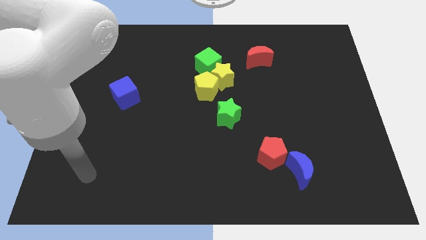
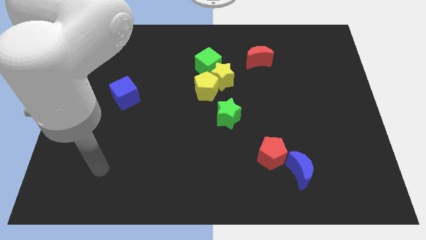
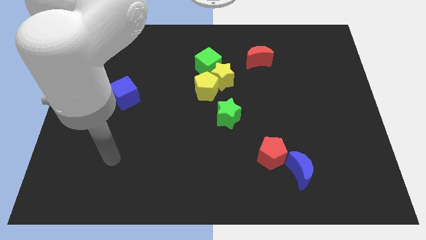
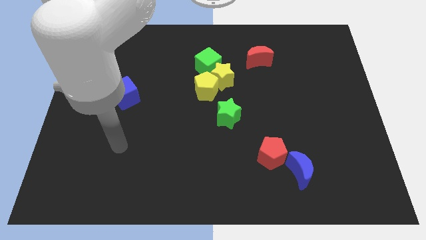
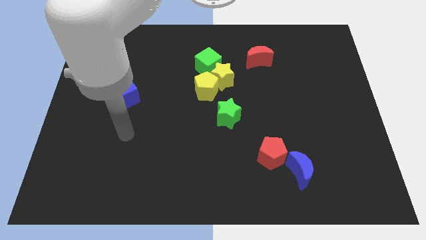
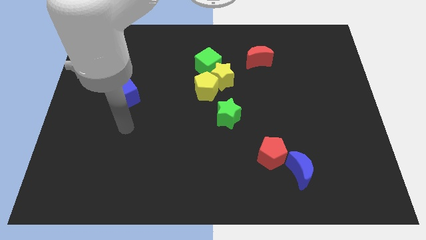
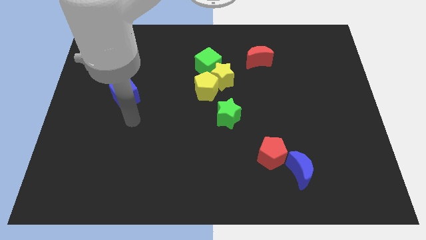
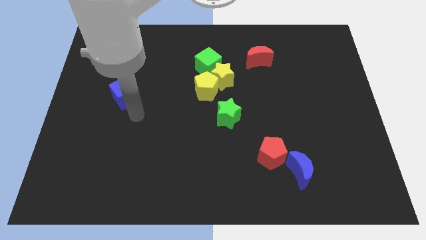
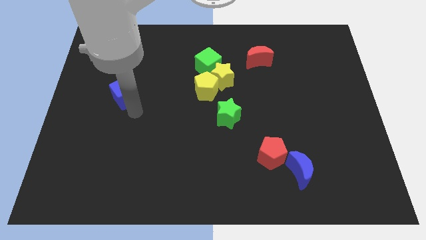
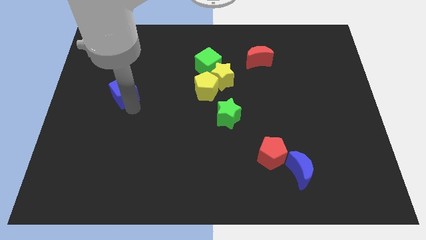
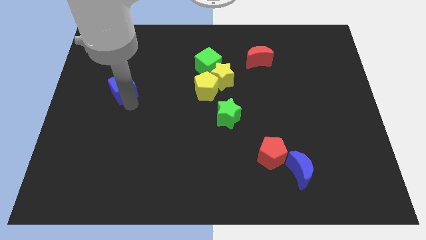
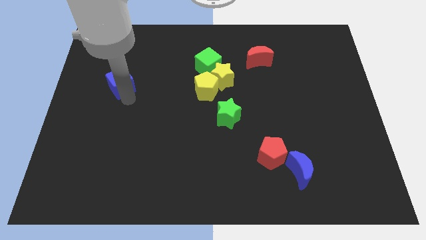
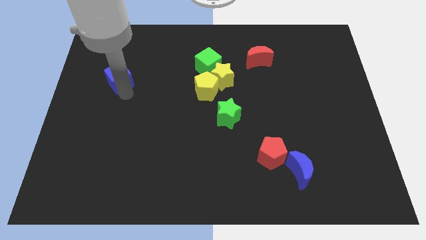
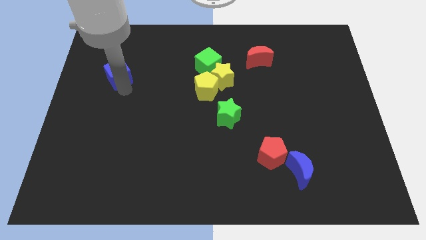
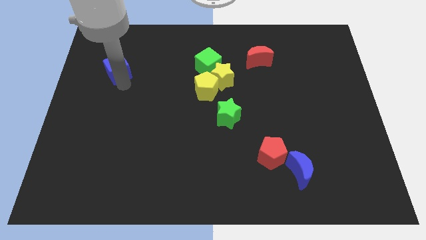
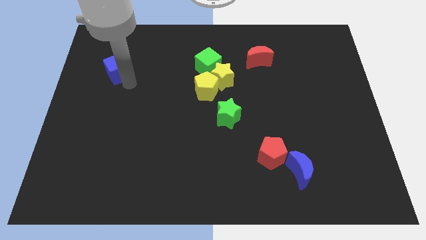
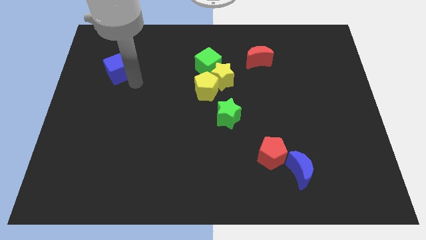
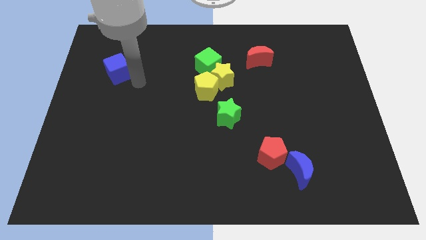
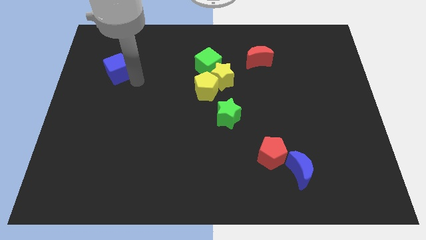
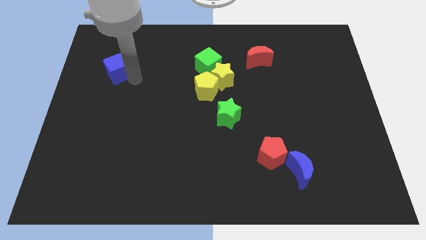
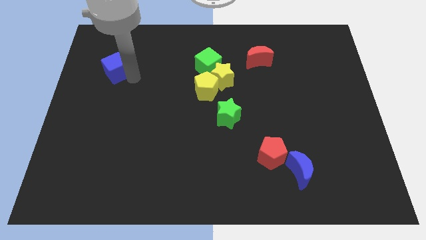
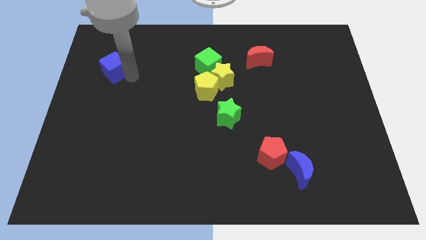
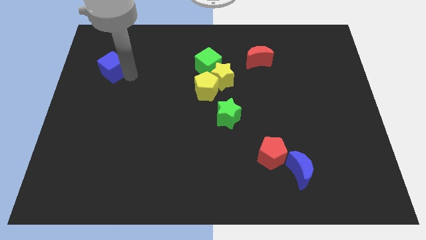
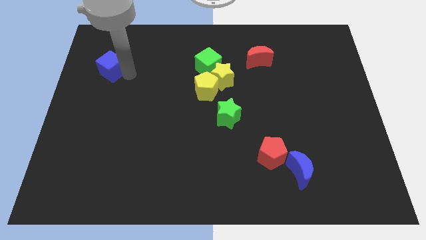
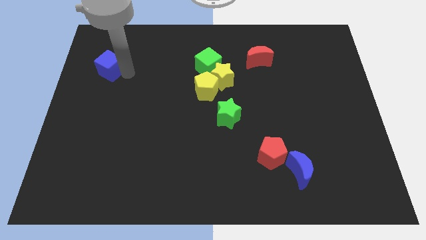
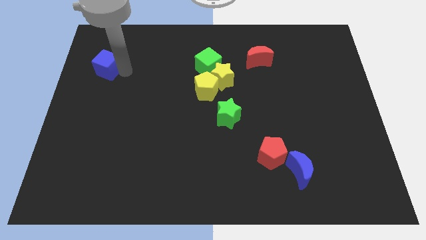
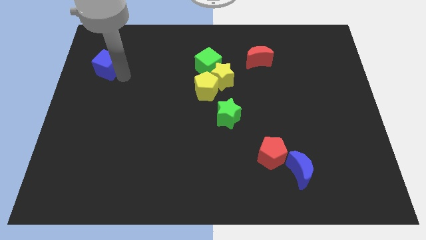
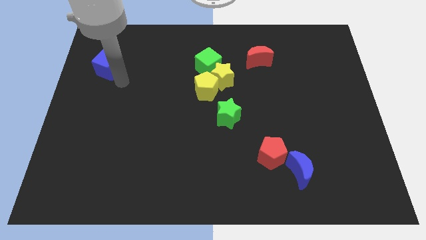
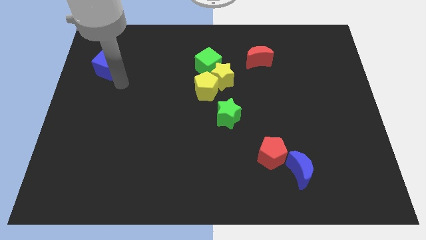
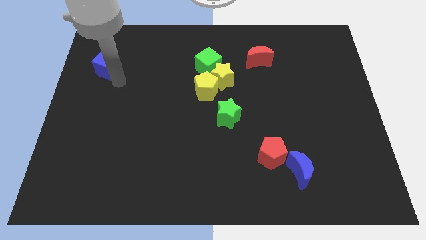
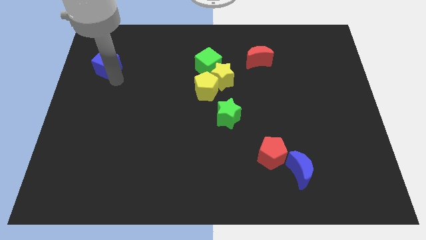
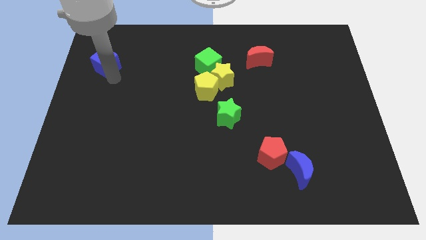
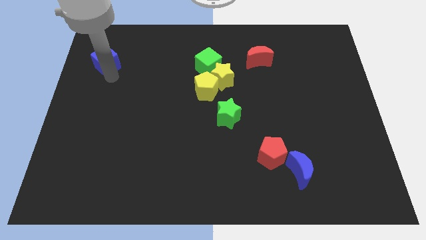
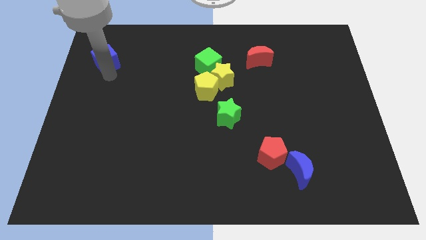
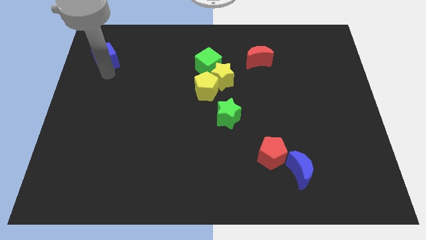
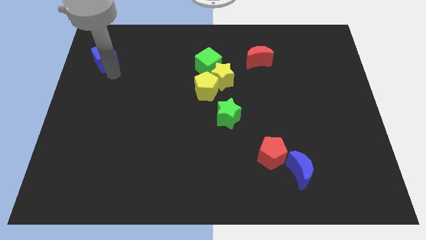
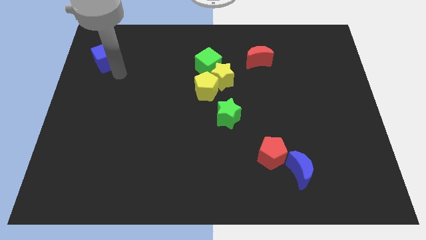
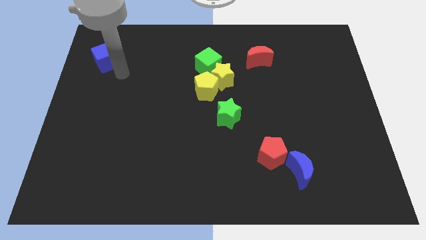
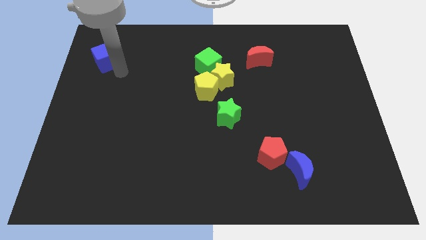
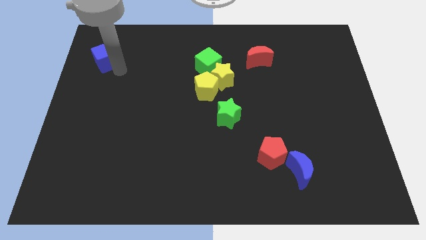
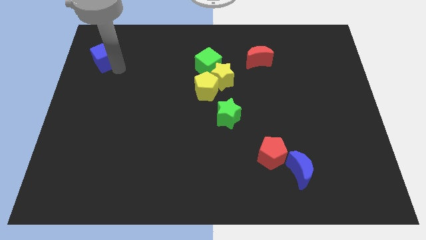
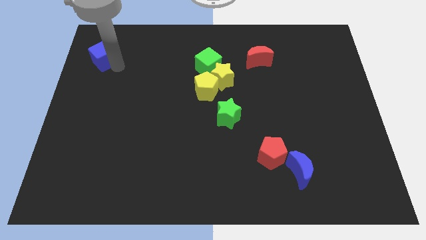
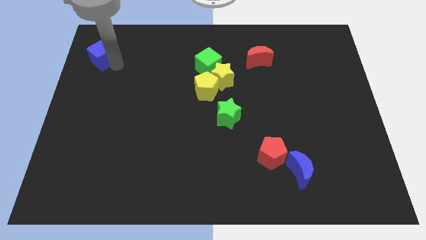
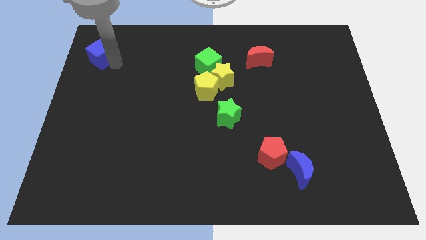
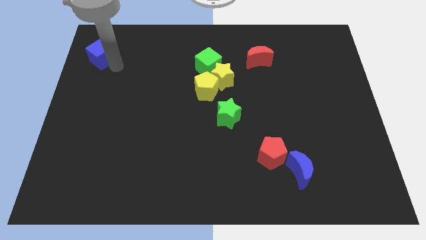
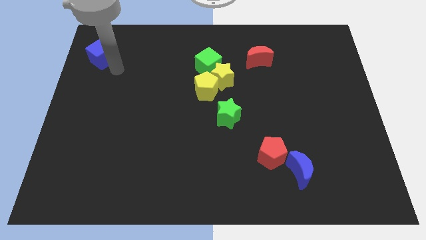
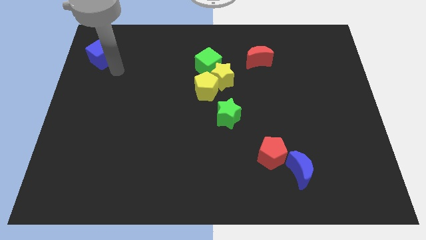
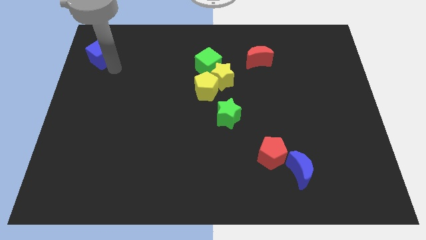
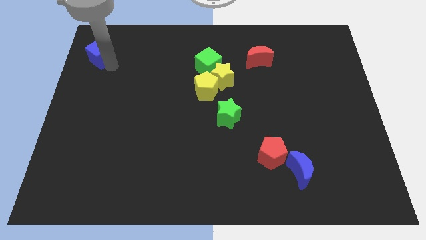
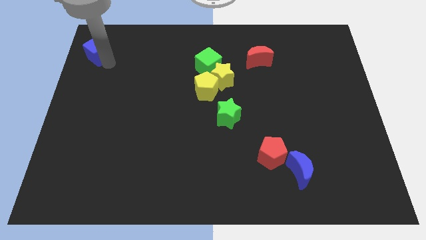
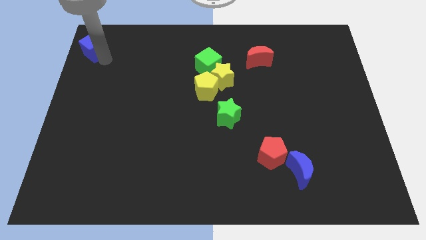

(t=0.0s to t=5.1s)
move the blue cube to the top left of the board

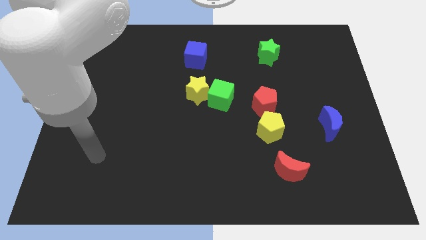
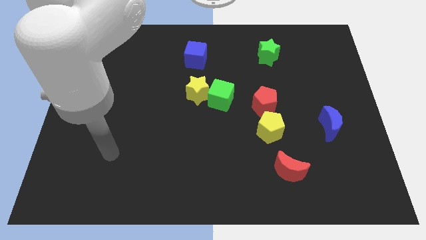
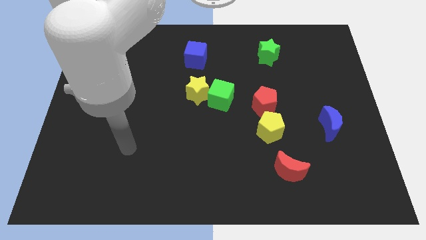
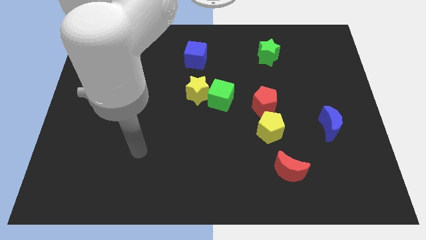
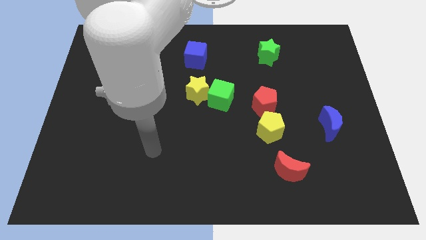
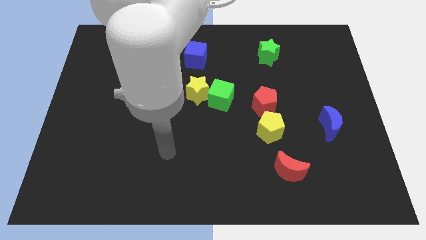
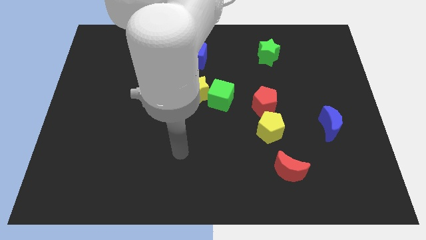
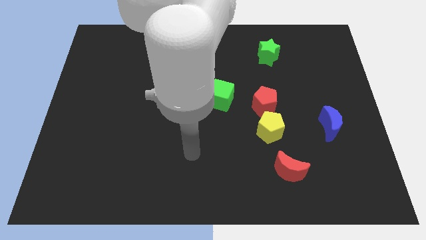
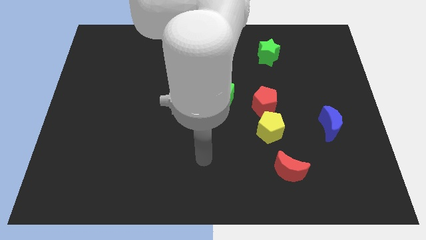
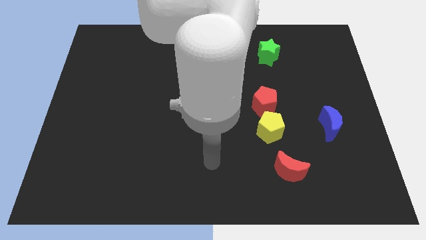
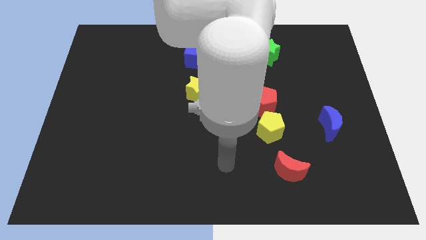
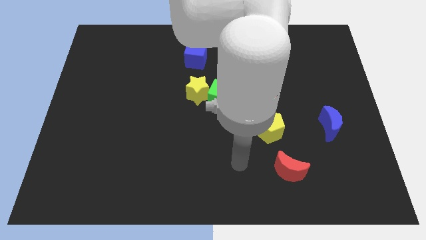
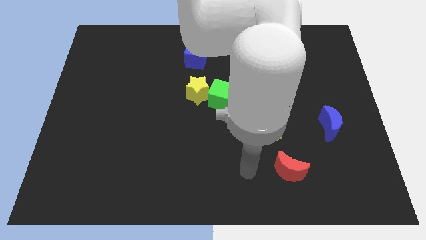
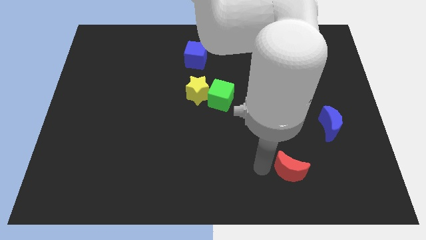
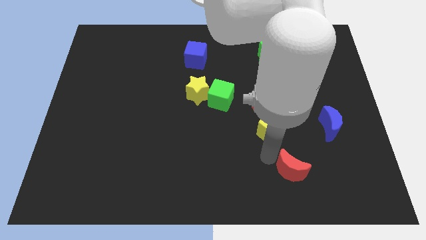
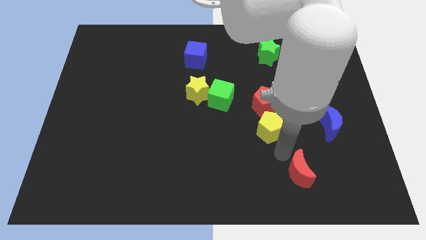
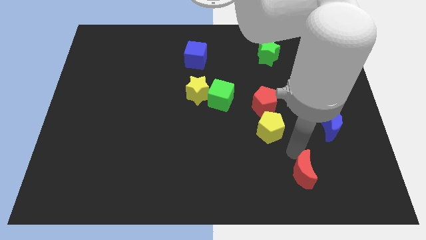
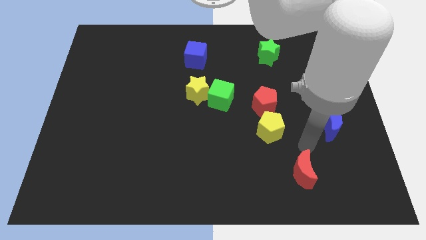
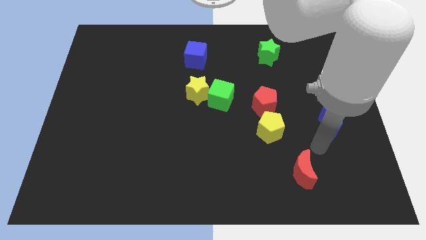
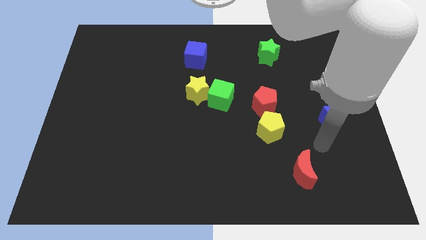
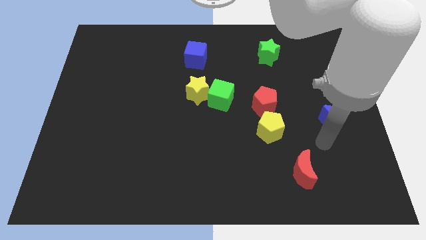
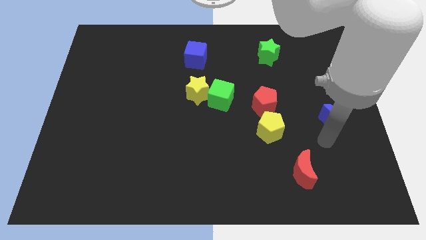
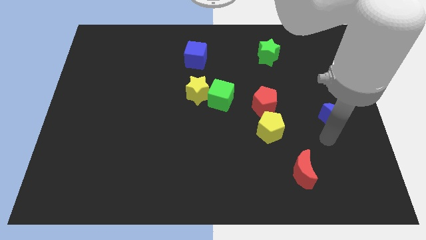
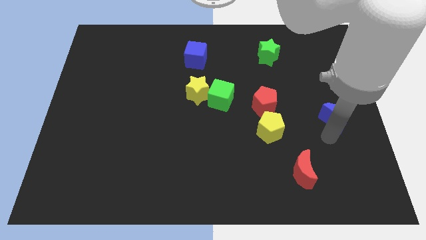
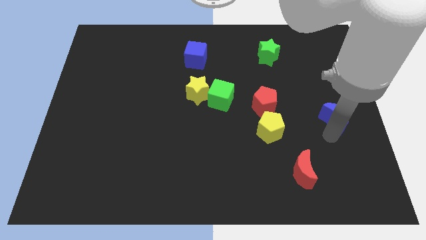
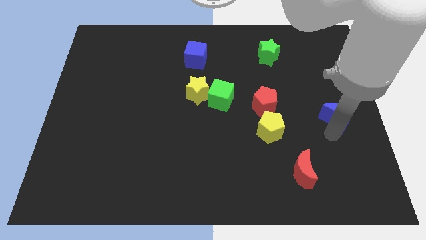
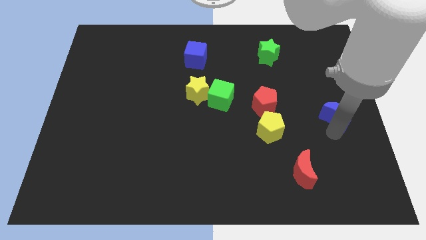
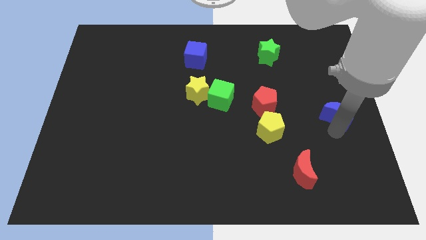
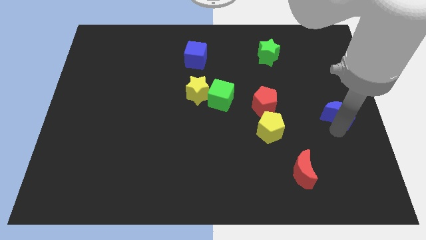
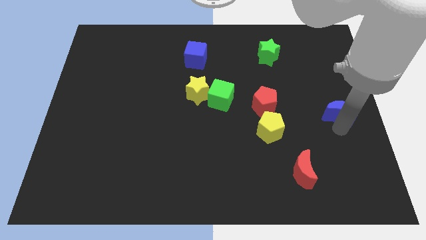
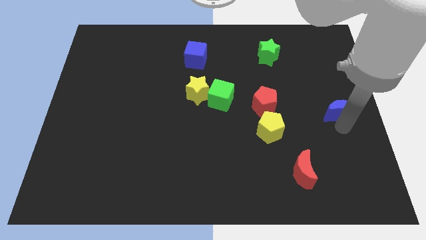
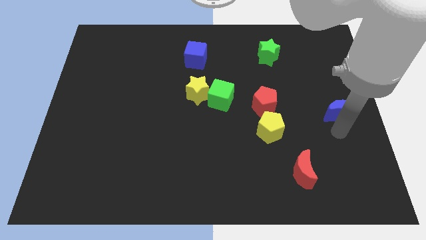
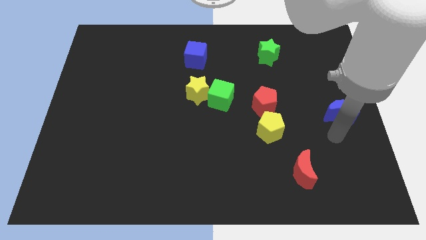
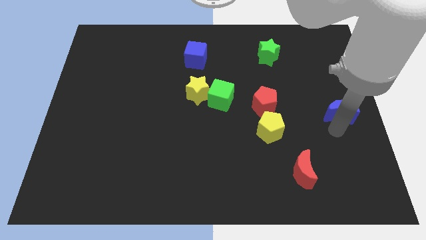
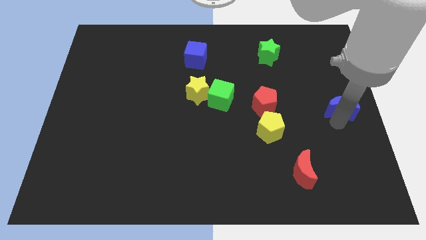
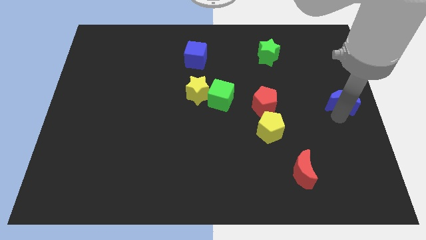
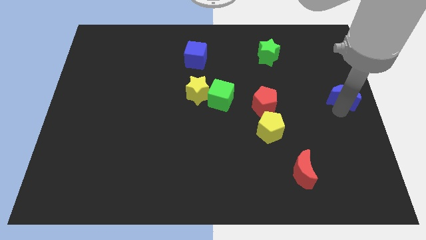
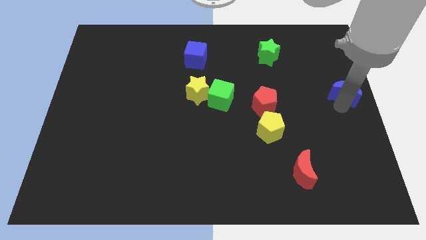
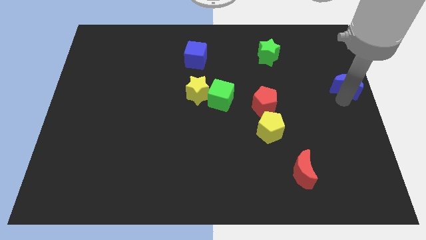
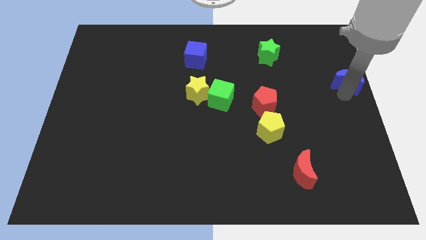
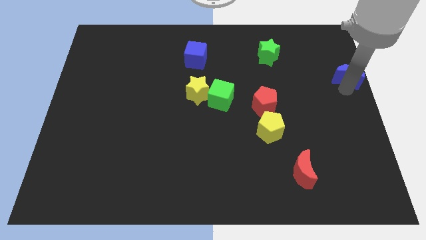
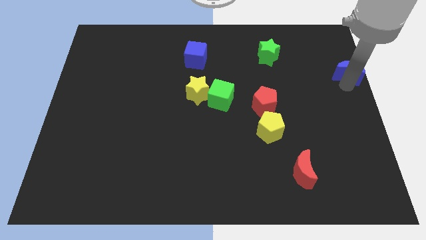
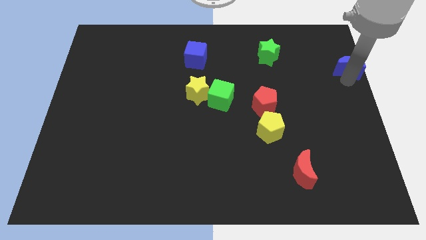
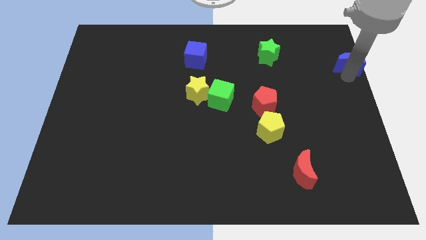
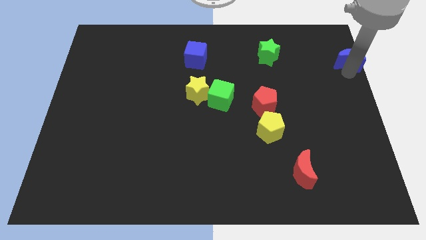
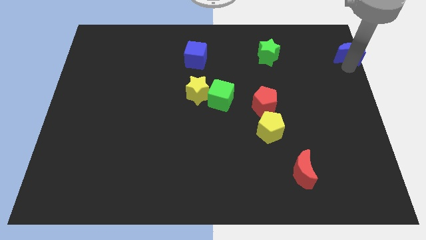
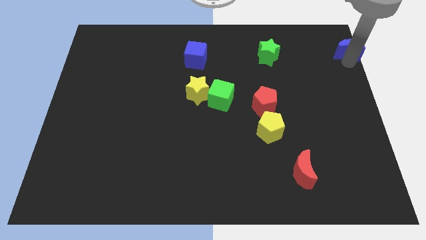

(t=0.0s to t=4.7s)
put the blue moon to the top right of the board
